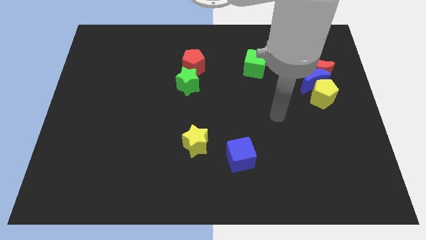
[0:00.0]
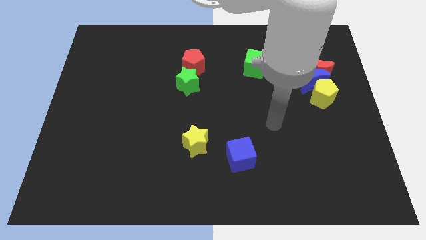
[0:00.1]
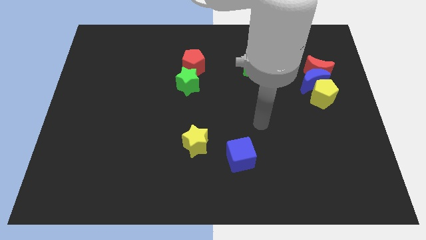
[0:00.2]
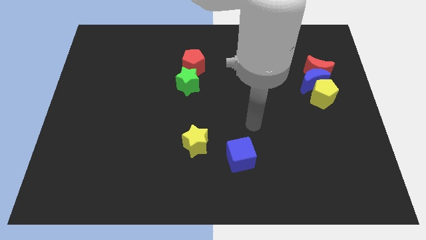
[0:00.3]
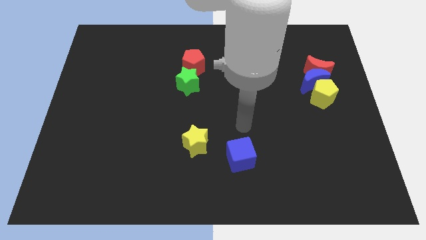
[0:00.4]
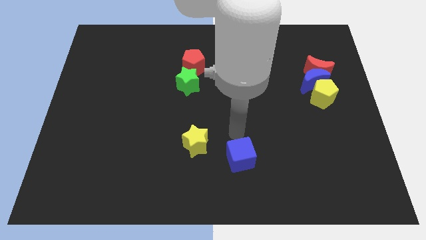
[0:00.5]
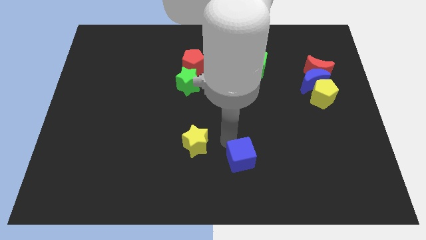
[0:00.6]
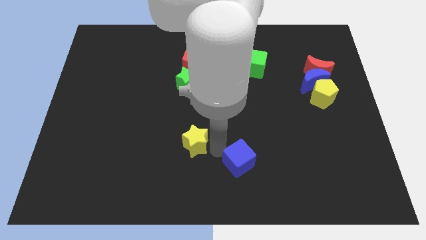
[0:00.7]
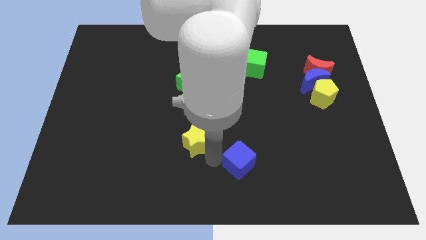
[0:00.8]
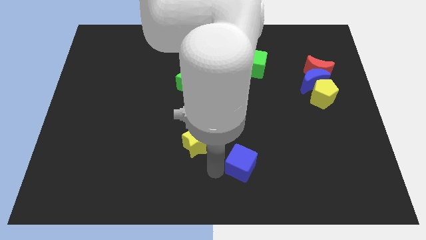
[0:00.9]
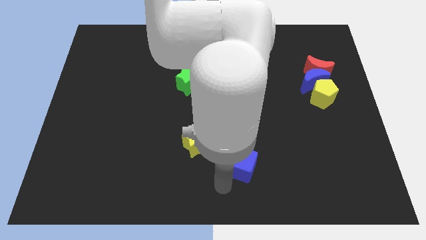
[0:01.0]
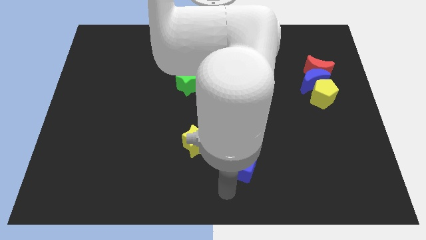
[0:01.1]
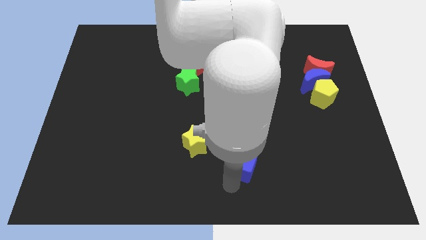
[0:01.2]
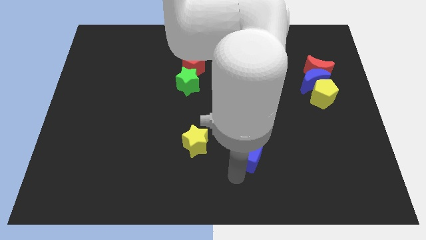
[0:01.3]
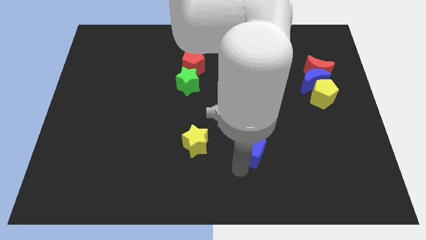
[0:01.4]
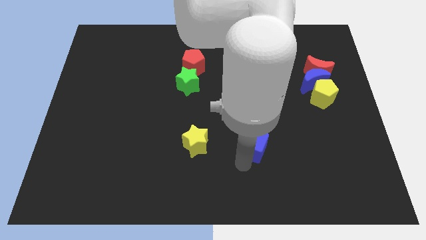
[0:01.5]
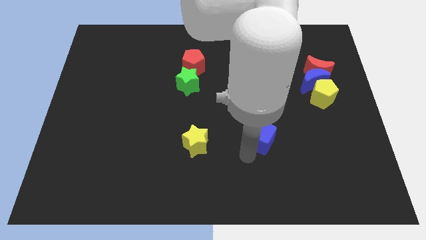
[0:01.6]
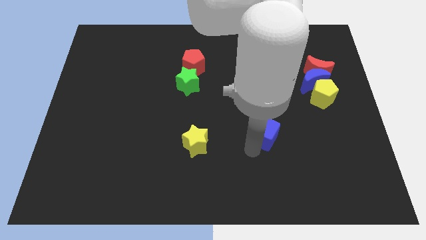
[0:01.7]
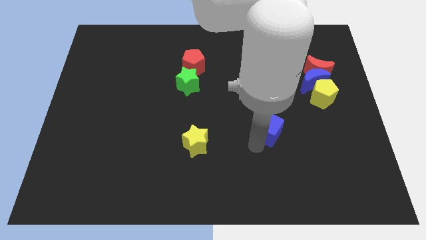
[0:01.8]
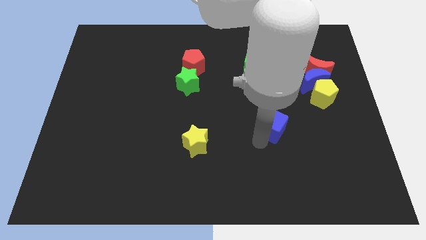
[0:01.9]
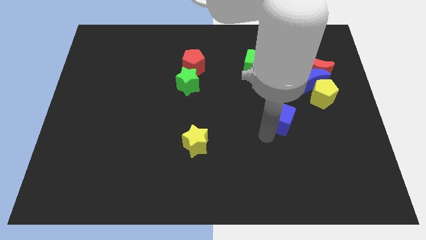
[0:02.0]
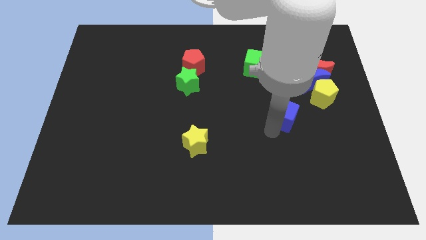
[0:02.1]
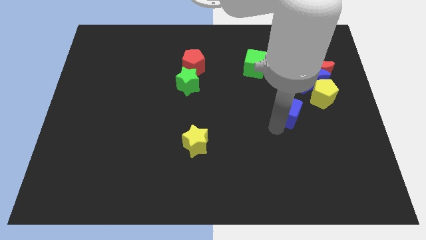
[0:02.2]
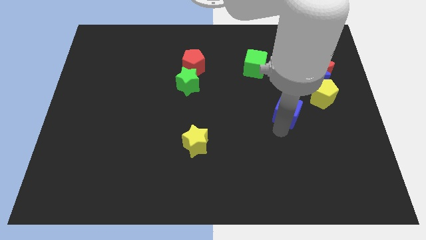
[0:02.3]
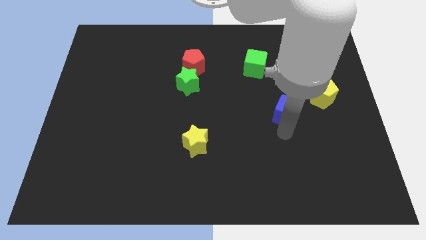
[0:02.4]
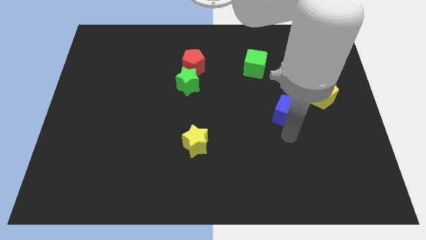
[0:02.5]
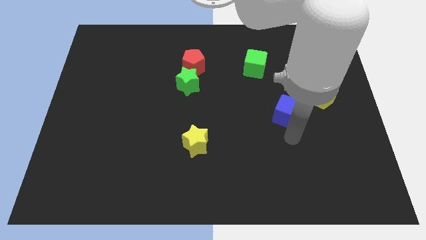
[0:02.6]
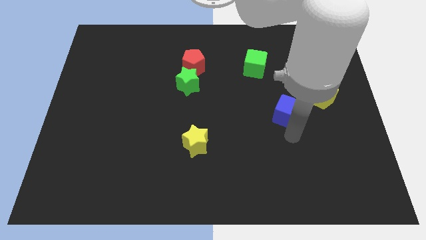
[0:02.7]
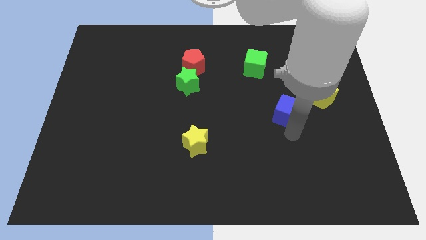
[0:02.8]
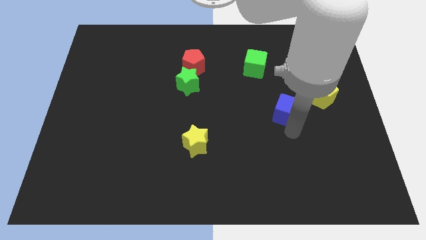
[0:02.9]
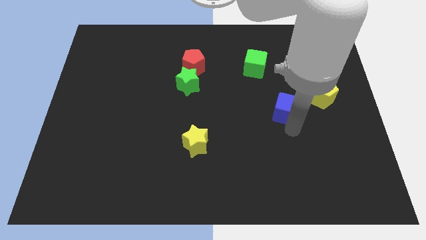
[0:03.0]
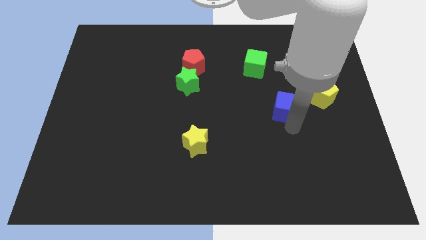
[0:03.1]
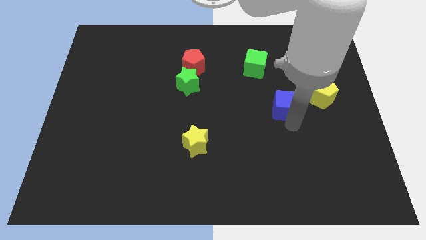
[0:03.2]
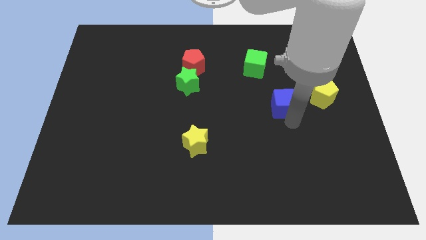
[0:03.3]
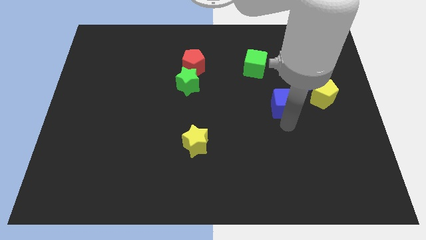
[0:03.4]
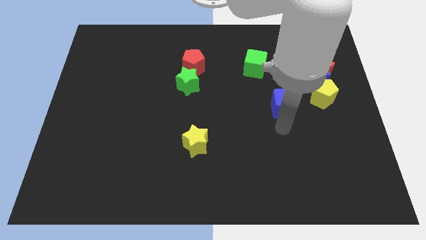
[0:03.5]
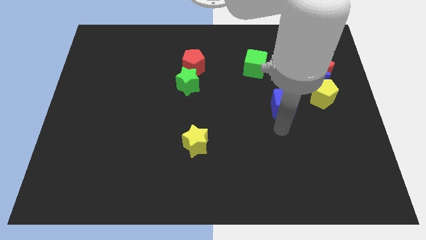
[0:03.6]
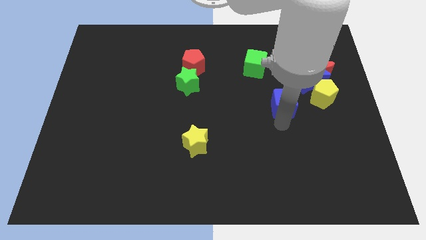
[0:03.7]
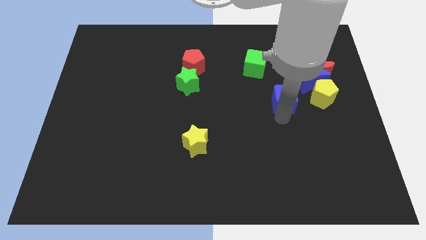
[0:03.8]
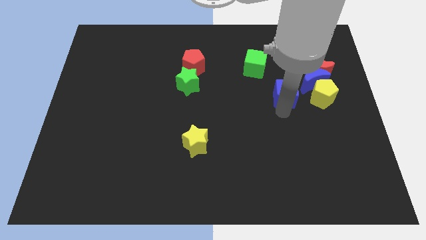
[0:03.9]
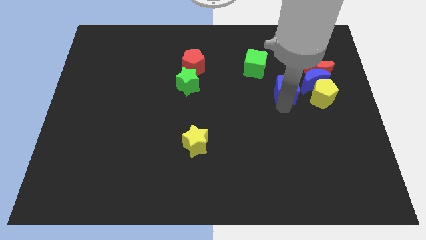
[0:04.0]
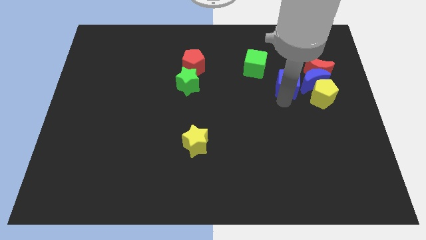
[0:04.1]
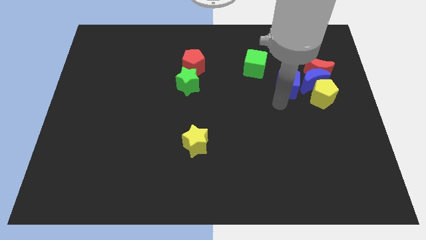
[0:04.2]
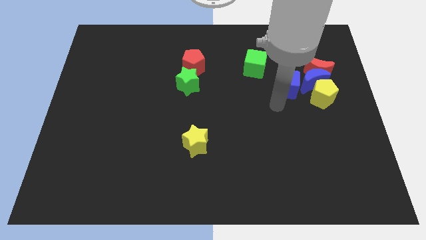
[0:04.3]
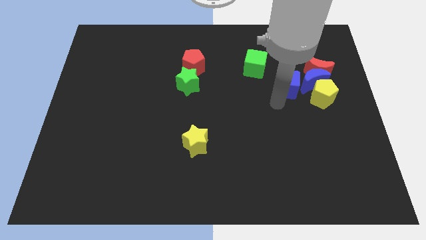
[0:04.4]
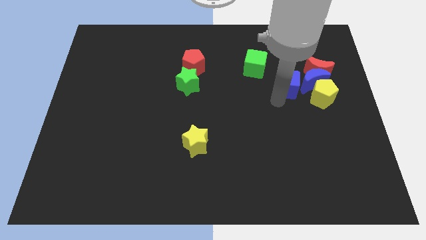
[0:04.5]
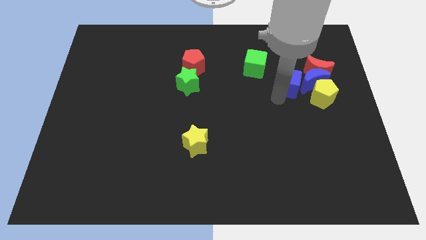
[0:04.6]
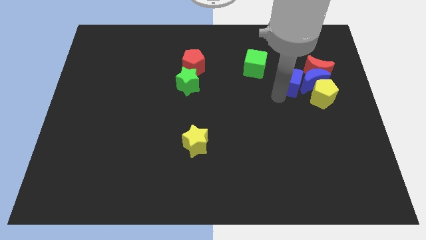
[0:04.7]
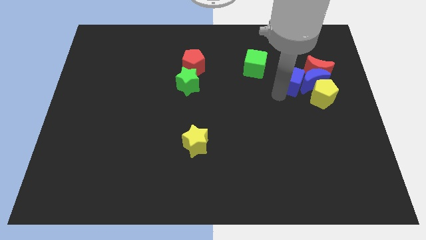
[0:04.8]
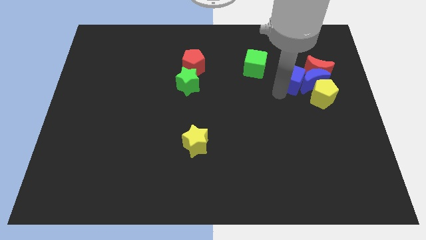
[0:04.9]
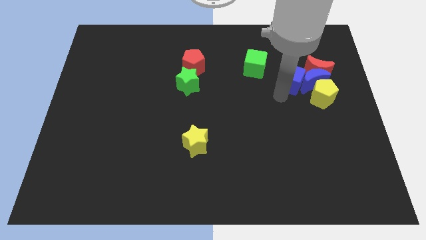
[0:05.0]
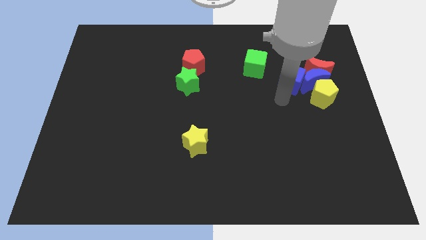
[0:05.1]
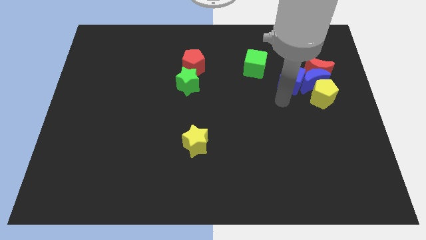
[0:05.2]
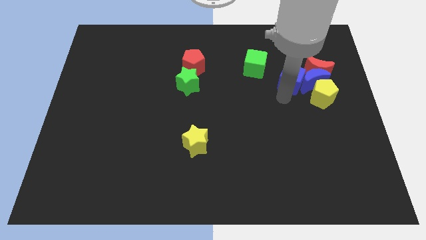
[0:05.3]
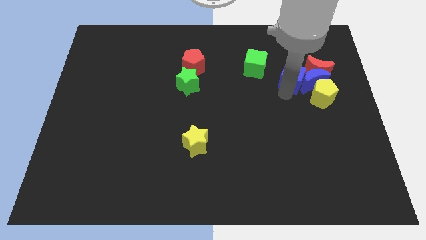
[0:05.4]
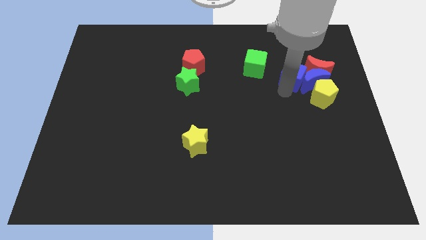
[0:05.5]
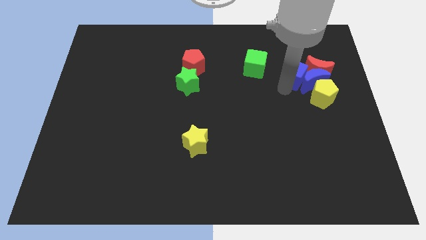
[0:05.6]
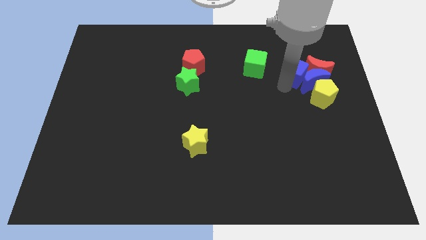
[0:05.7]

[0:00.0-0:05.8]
move the blue cube towards the red moon

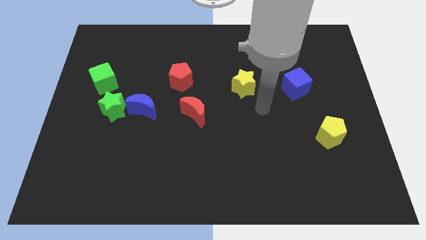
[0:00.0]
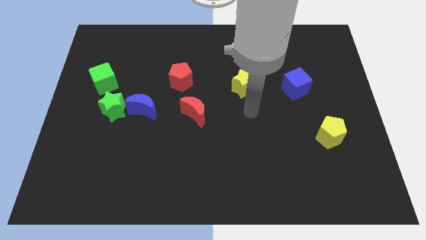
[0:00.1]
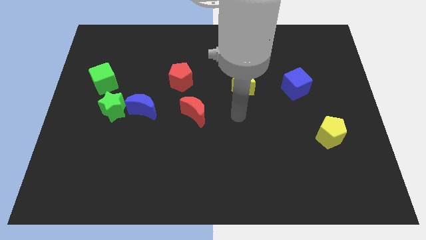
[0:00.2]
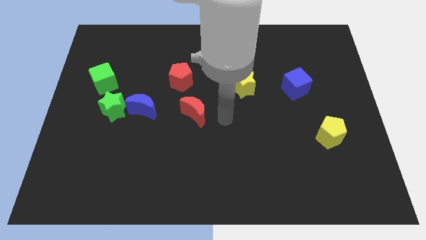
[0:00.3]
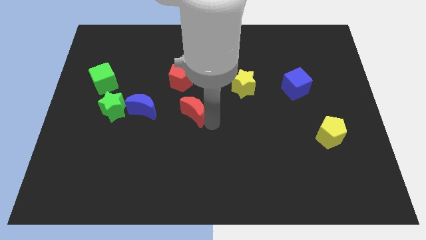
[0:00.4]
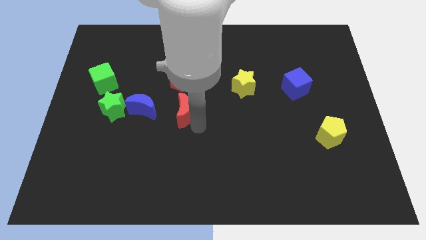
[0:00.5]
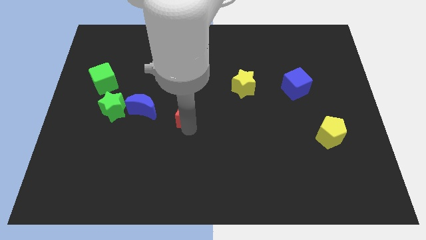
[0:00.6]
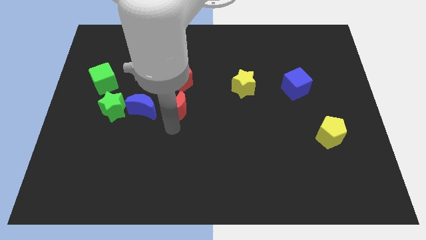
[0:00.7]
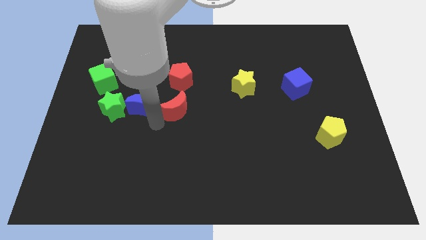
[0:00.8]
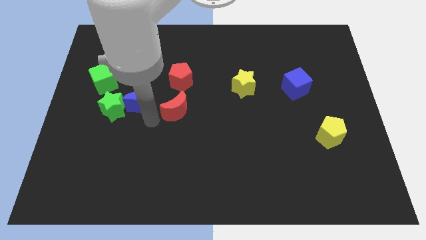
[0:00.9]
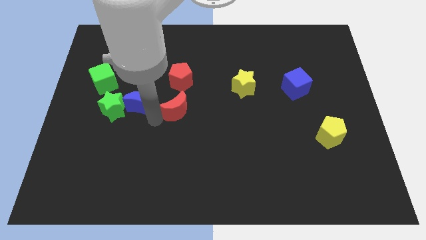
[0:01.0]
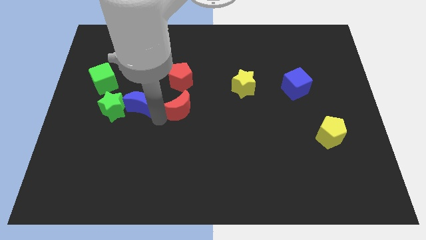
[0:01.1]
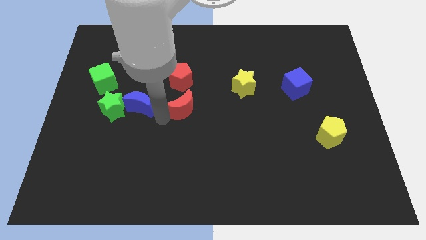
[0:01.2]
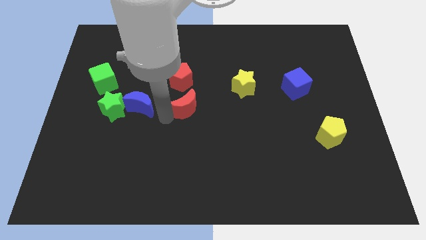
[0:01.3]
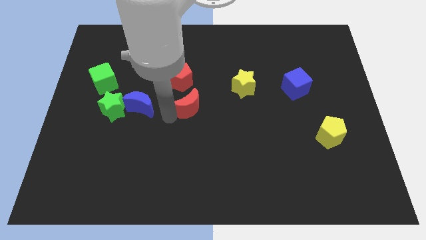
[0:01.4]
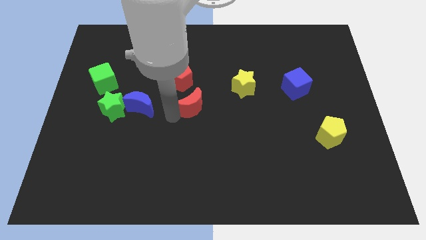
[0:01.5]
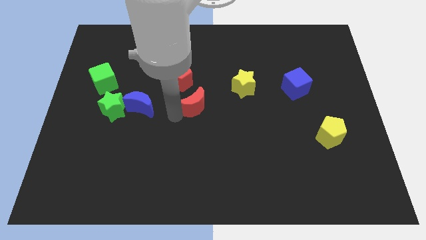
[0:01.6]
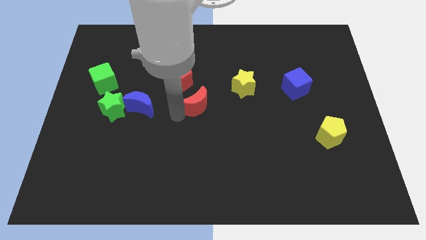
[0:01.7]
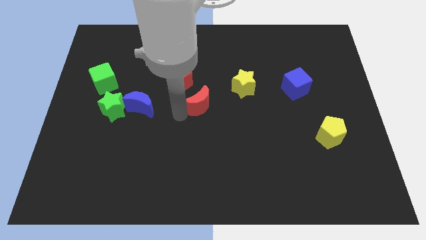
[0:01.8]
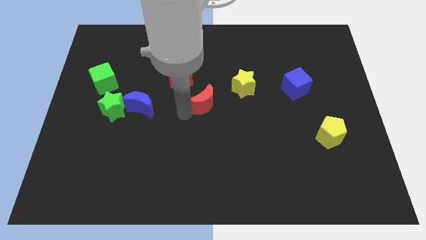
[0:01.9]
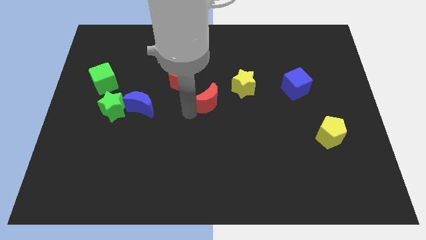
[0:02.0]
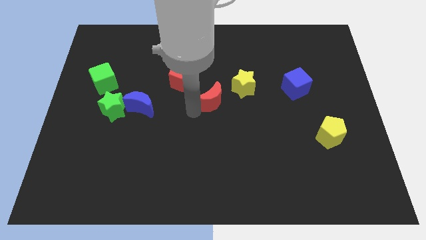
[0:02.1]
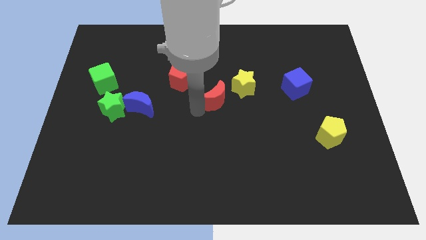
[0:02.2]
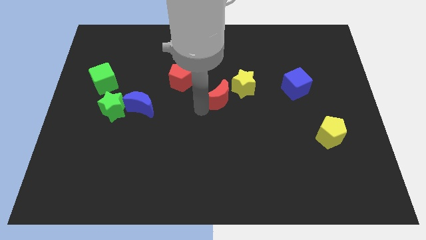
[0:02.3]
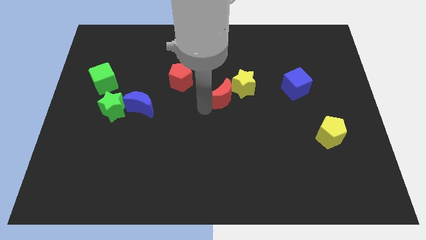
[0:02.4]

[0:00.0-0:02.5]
push the red moon to the yellow star
